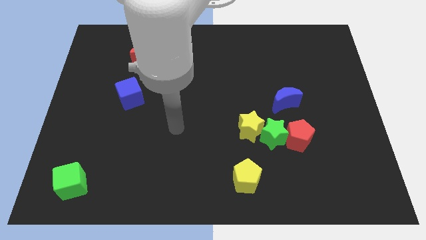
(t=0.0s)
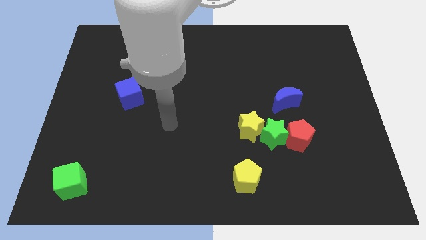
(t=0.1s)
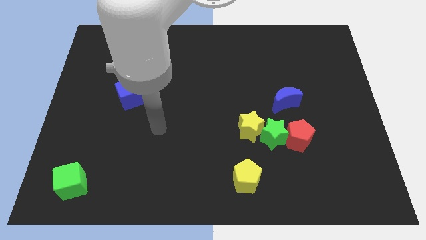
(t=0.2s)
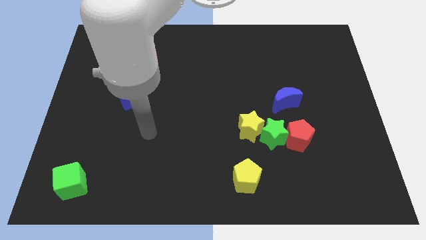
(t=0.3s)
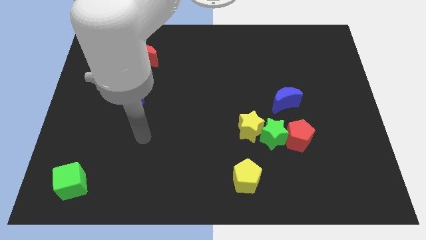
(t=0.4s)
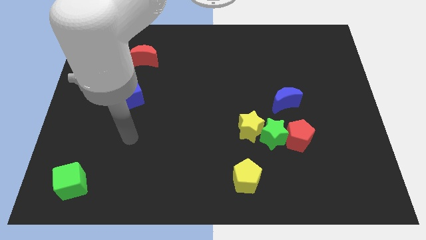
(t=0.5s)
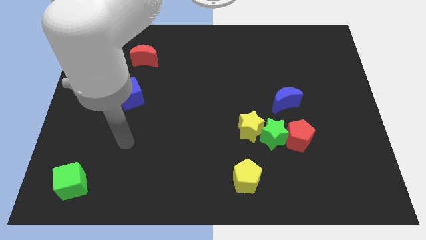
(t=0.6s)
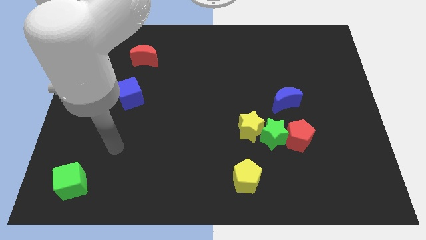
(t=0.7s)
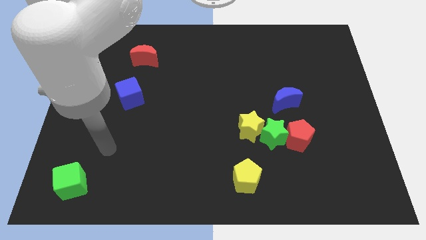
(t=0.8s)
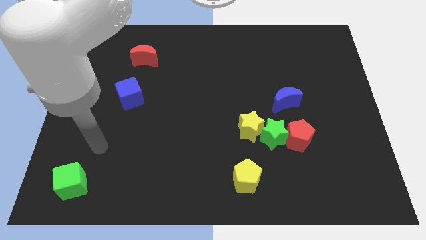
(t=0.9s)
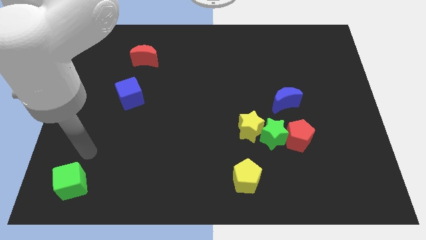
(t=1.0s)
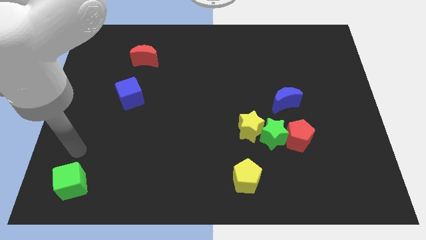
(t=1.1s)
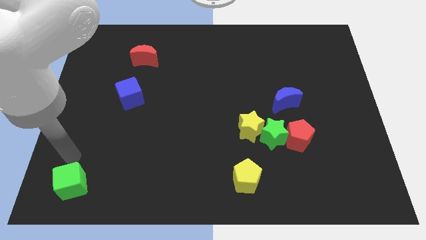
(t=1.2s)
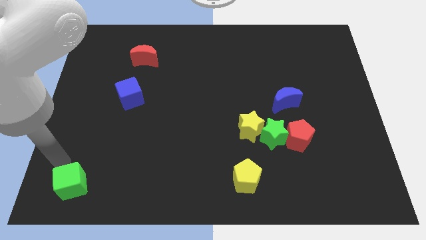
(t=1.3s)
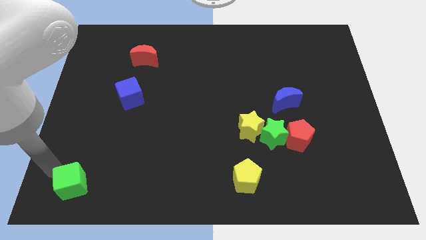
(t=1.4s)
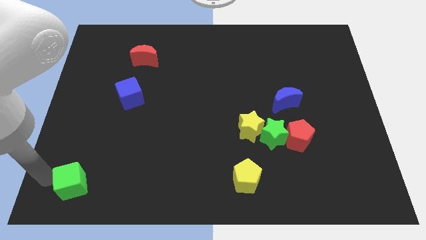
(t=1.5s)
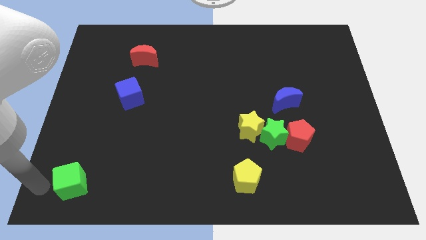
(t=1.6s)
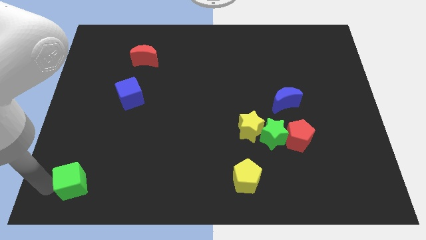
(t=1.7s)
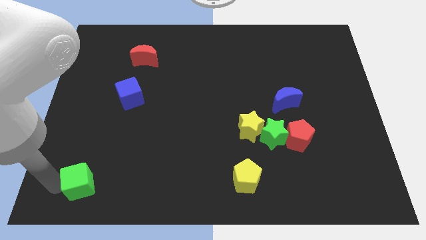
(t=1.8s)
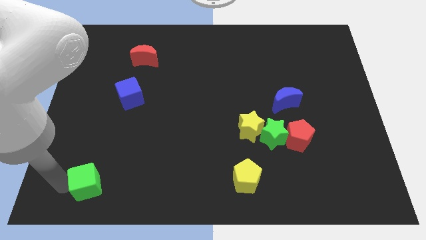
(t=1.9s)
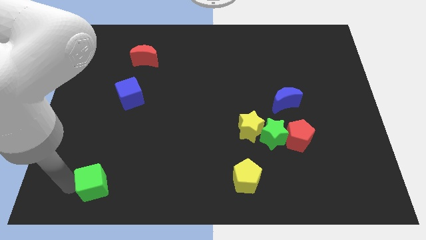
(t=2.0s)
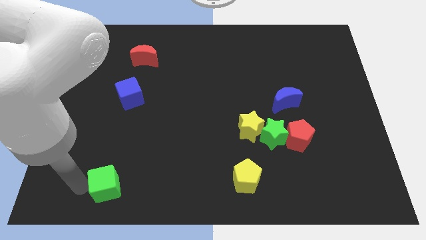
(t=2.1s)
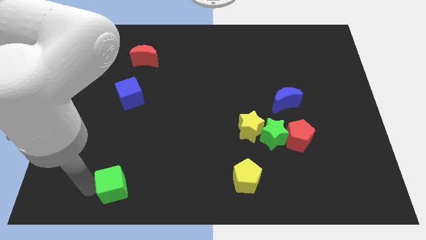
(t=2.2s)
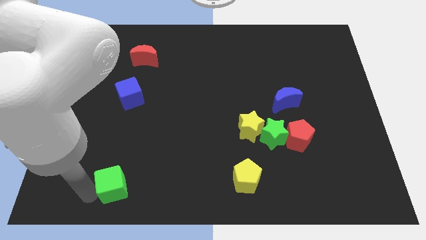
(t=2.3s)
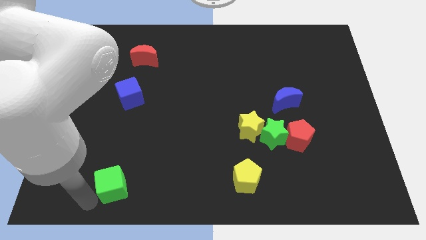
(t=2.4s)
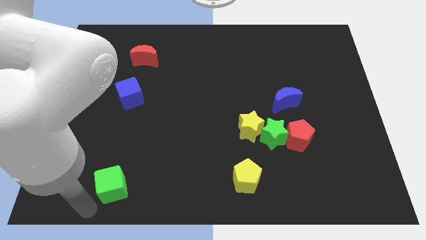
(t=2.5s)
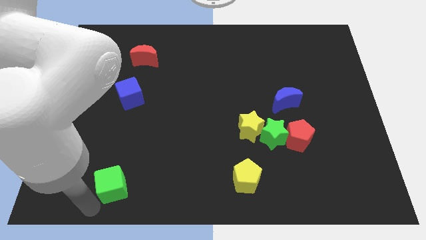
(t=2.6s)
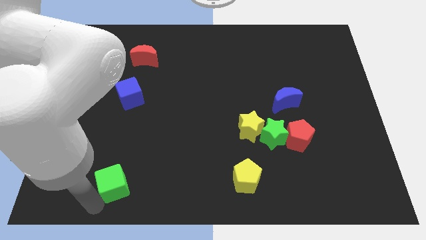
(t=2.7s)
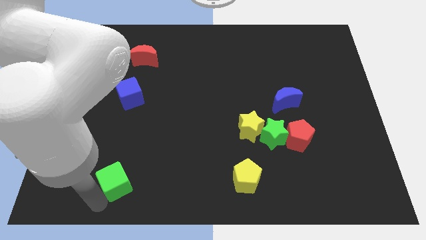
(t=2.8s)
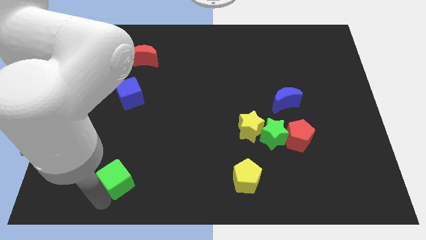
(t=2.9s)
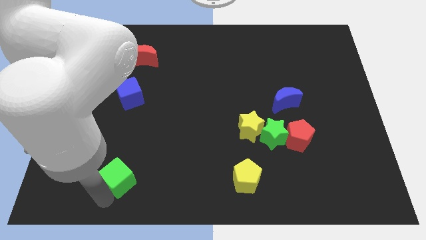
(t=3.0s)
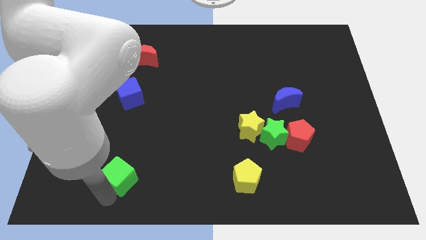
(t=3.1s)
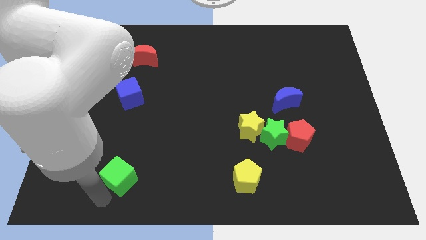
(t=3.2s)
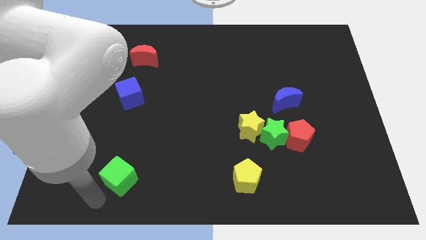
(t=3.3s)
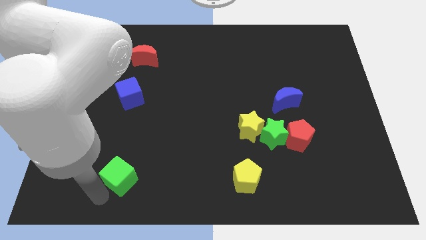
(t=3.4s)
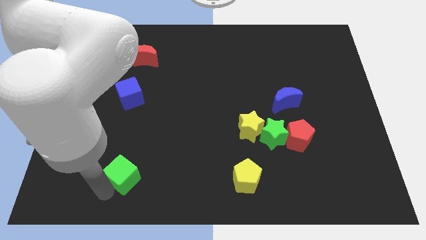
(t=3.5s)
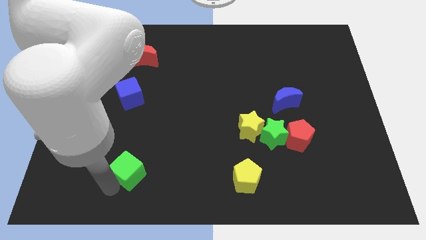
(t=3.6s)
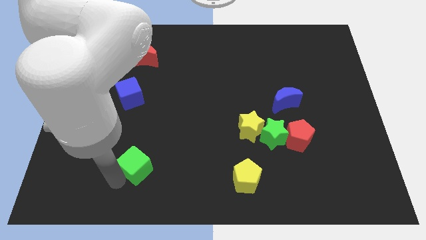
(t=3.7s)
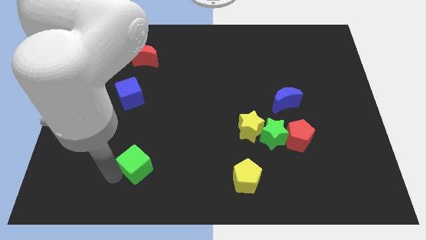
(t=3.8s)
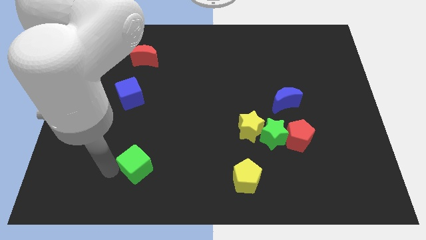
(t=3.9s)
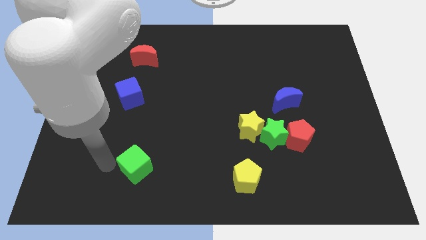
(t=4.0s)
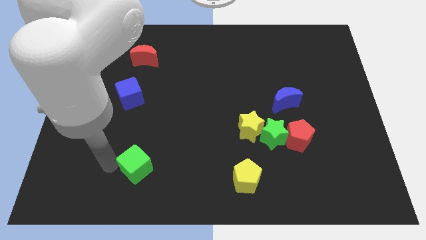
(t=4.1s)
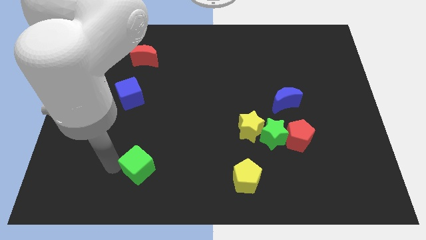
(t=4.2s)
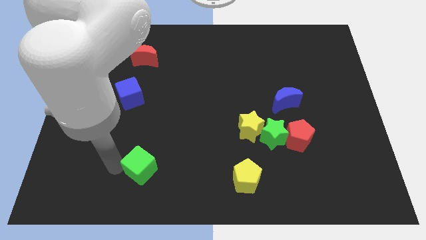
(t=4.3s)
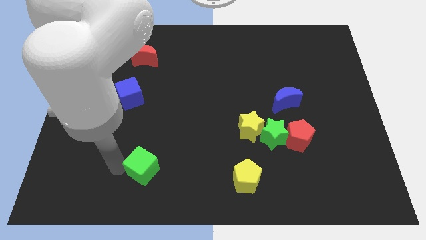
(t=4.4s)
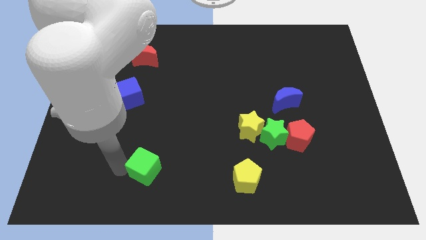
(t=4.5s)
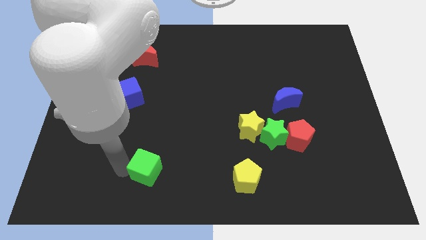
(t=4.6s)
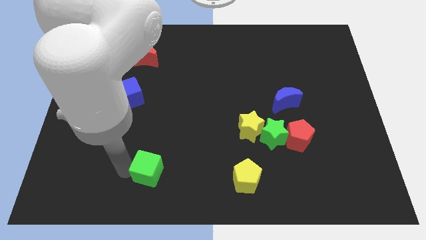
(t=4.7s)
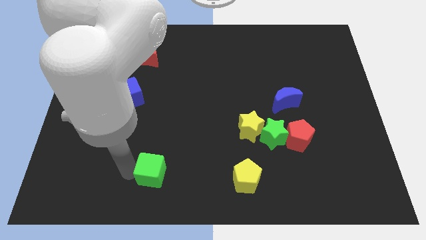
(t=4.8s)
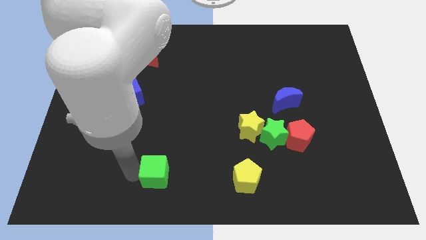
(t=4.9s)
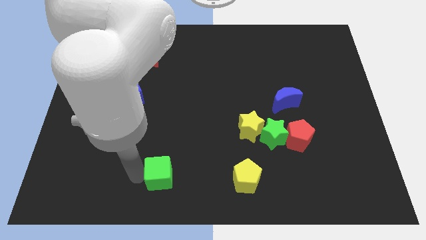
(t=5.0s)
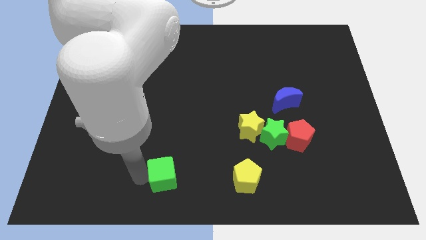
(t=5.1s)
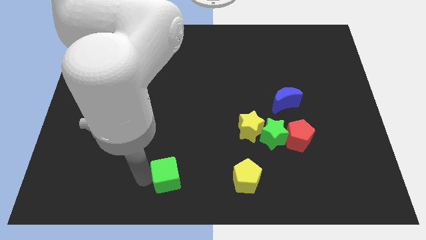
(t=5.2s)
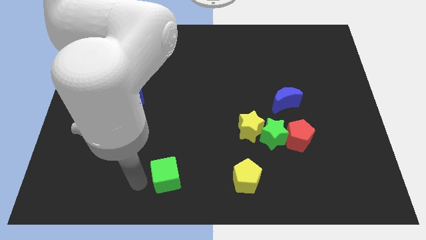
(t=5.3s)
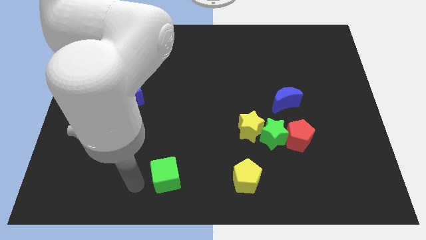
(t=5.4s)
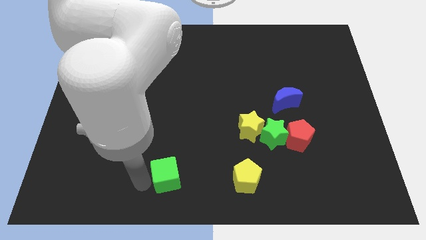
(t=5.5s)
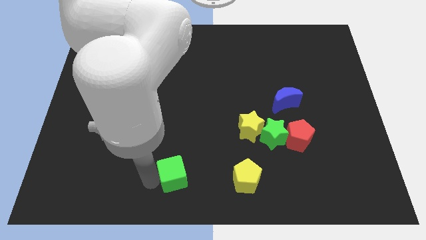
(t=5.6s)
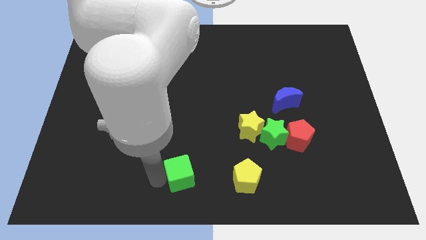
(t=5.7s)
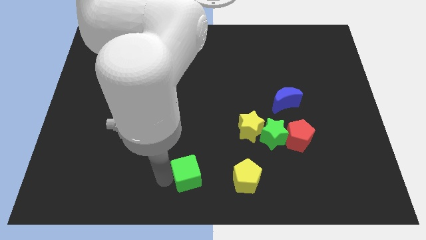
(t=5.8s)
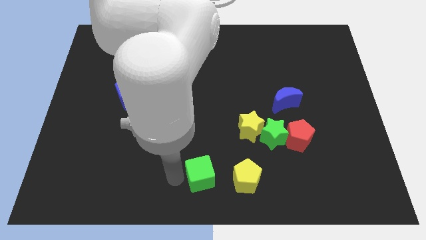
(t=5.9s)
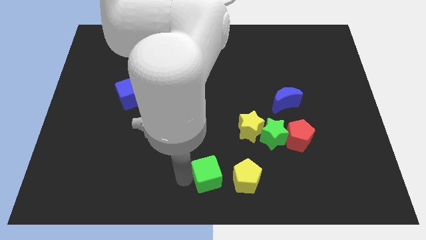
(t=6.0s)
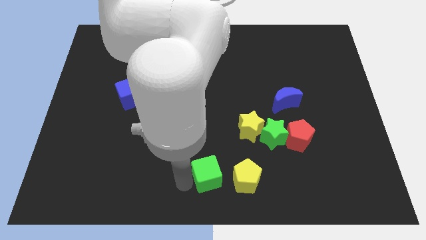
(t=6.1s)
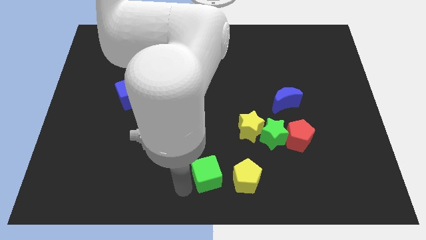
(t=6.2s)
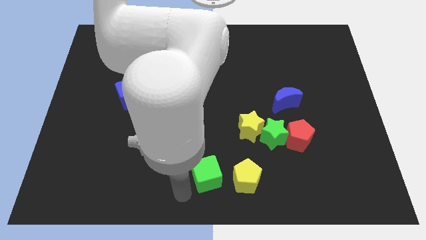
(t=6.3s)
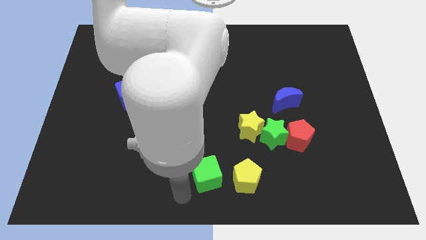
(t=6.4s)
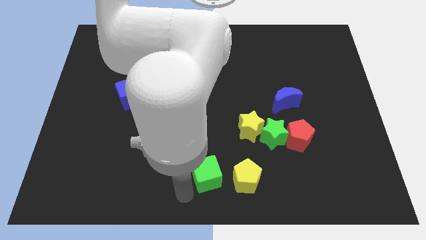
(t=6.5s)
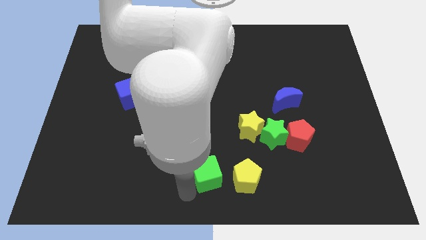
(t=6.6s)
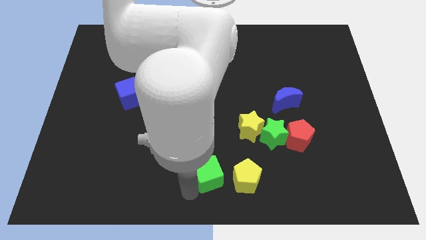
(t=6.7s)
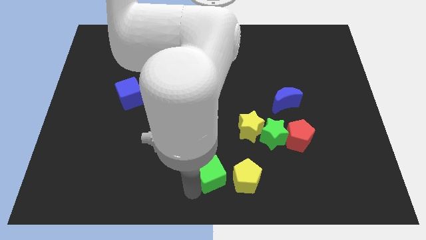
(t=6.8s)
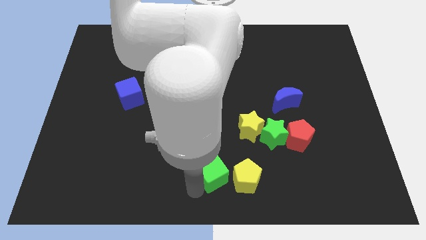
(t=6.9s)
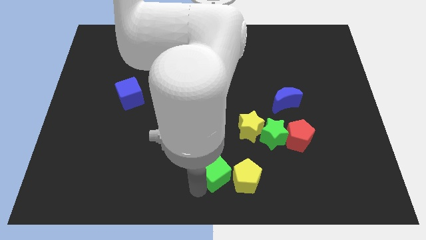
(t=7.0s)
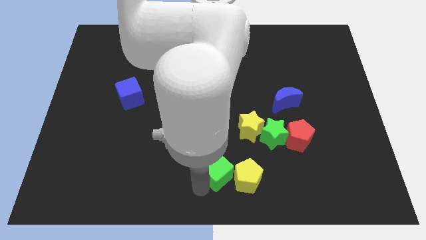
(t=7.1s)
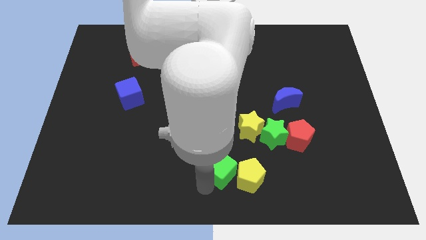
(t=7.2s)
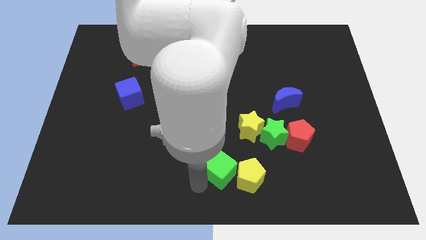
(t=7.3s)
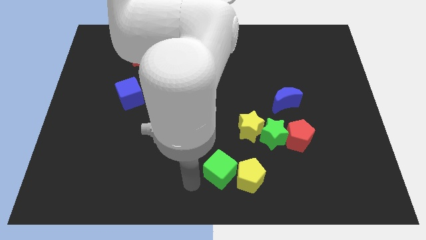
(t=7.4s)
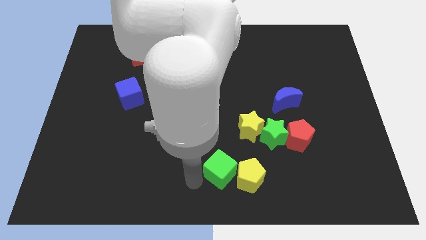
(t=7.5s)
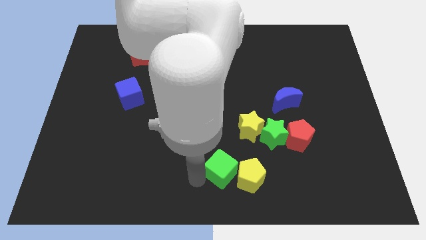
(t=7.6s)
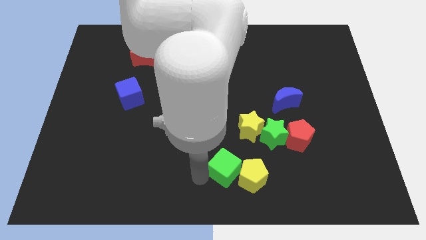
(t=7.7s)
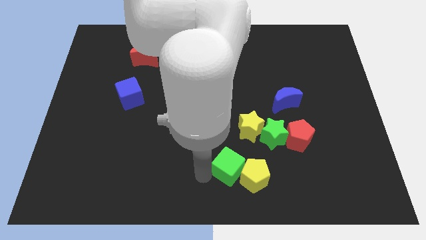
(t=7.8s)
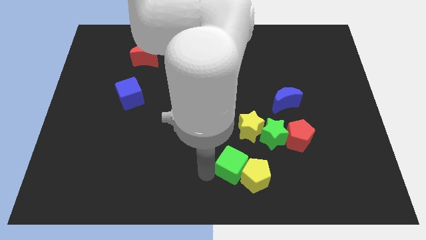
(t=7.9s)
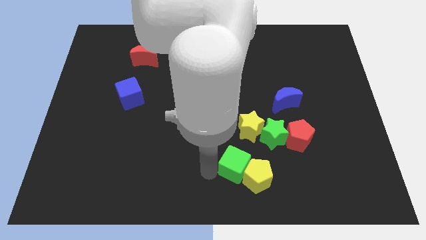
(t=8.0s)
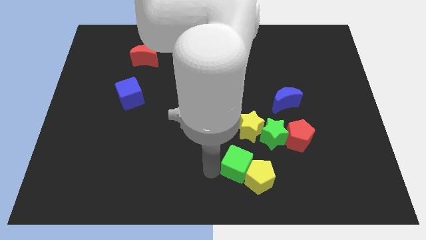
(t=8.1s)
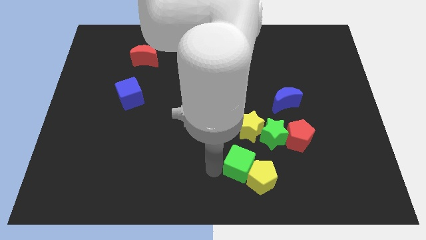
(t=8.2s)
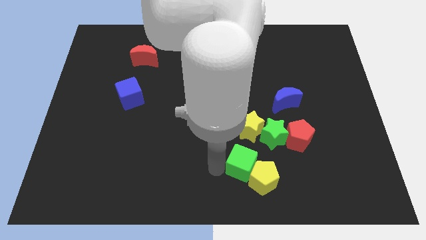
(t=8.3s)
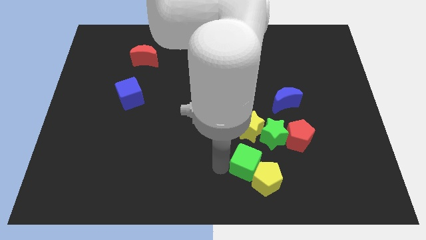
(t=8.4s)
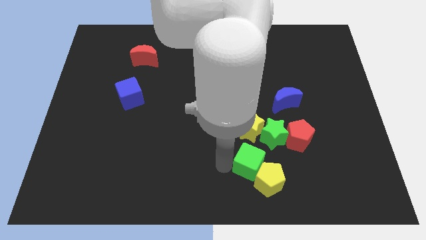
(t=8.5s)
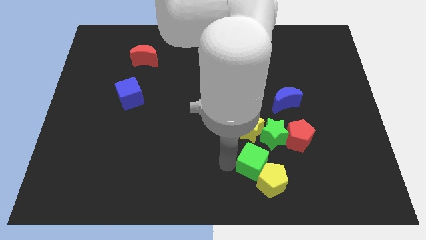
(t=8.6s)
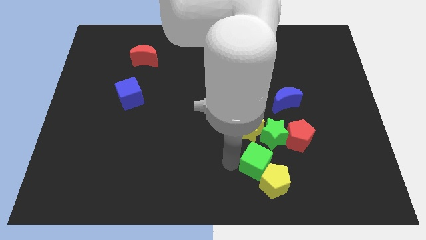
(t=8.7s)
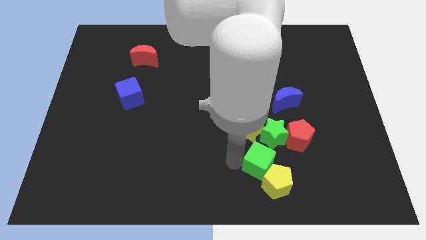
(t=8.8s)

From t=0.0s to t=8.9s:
move the green cube to the bottom right of the yellow star
